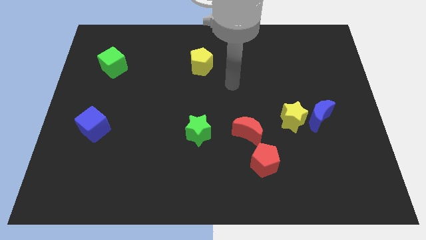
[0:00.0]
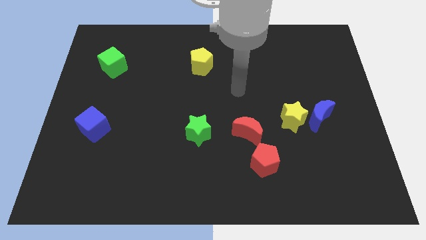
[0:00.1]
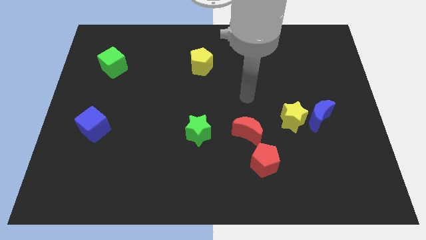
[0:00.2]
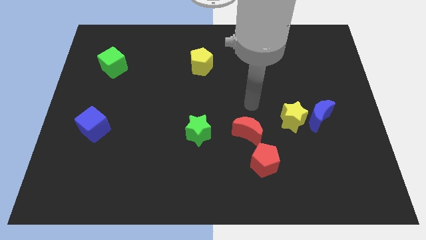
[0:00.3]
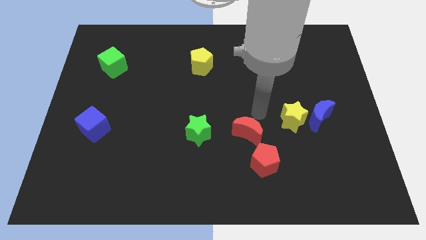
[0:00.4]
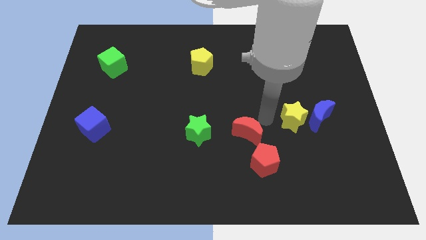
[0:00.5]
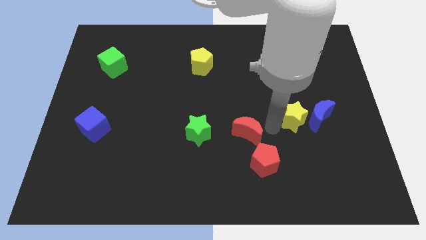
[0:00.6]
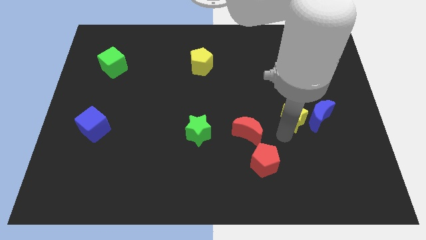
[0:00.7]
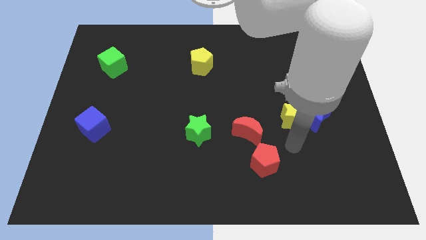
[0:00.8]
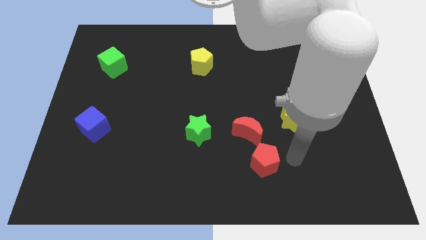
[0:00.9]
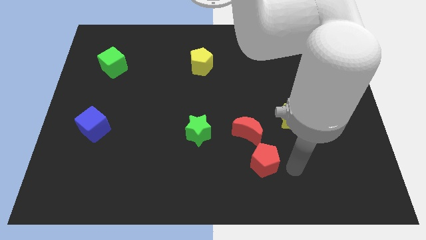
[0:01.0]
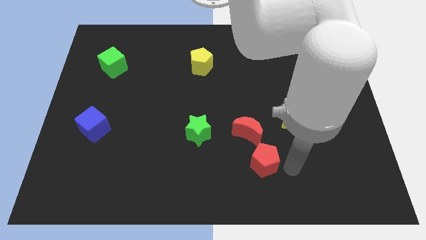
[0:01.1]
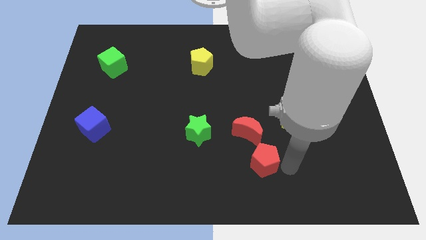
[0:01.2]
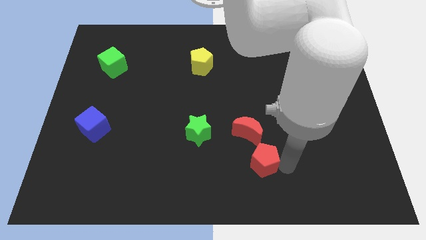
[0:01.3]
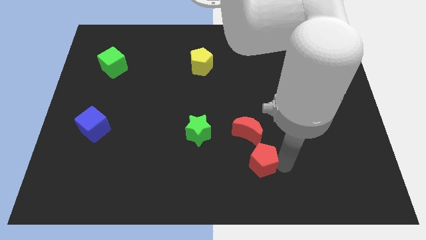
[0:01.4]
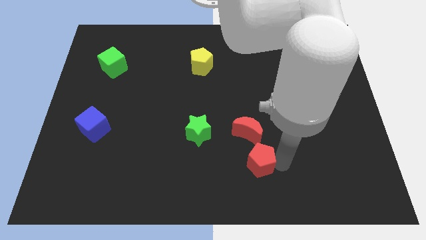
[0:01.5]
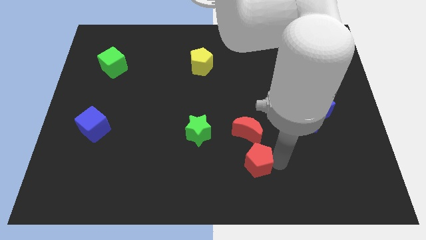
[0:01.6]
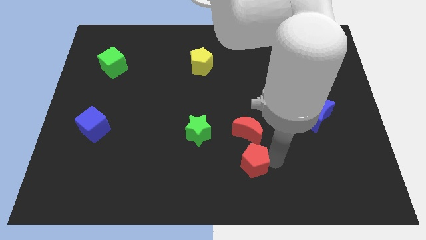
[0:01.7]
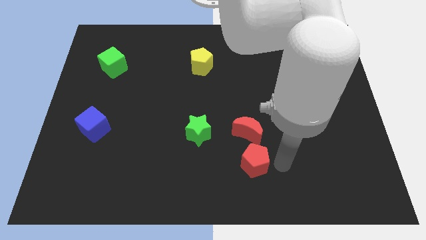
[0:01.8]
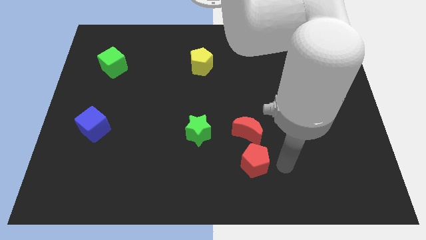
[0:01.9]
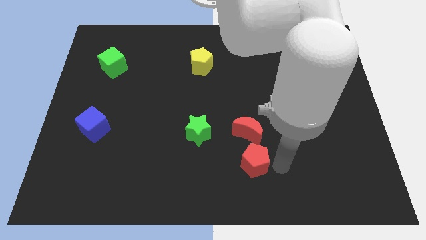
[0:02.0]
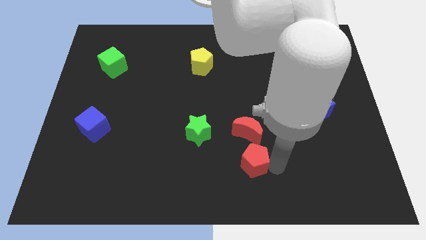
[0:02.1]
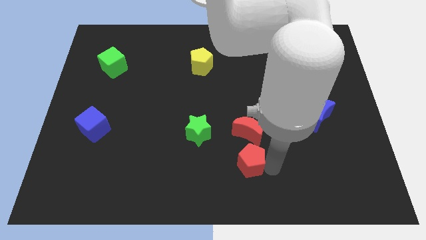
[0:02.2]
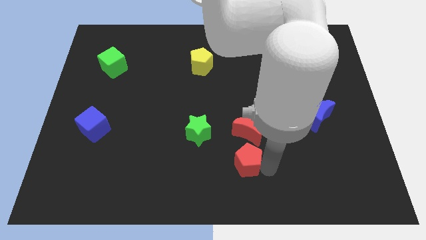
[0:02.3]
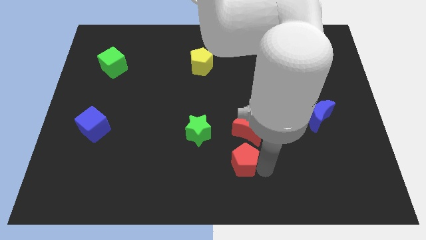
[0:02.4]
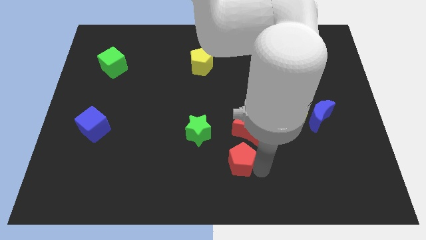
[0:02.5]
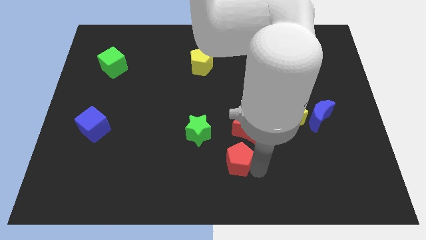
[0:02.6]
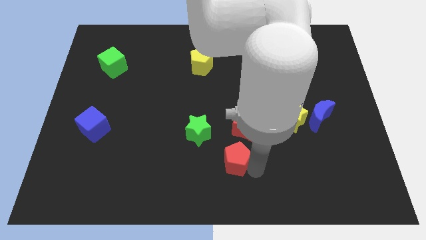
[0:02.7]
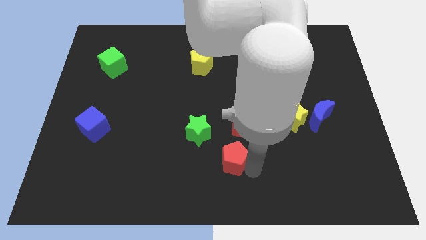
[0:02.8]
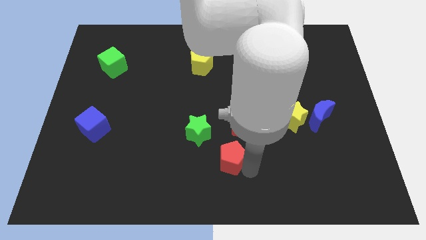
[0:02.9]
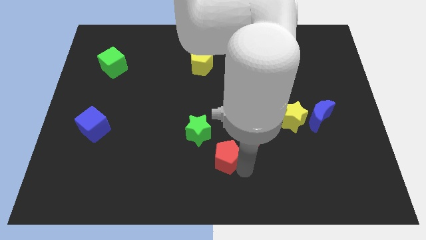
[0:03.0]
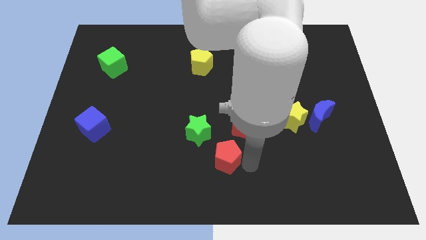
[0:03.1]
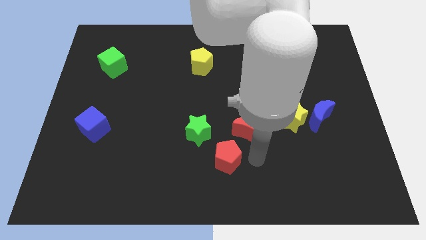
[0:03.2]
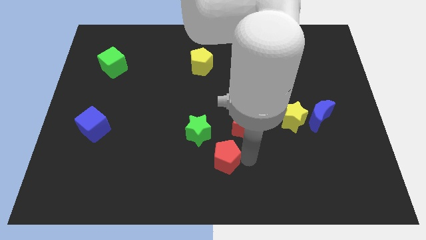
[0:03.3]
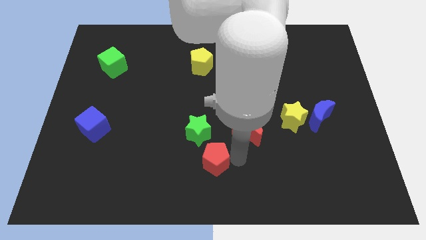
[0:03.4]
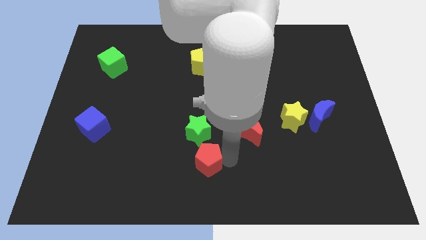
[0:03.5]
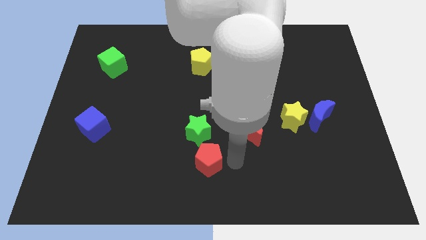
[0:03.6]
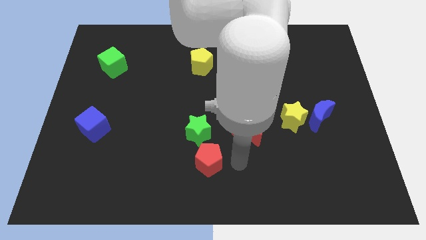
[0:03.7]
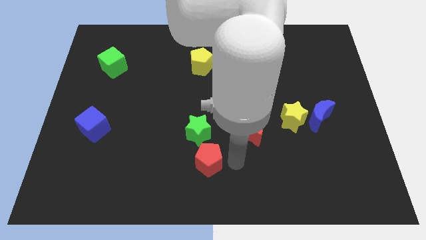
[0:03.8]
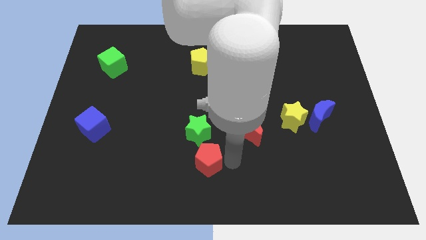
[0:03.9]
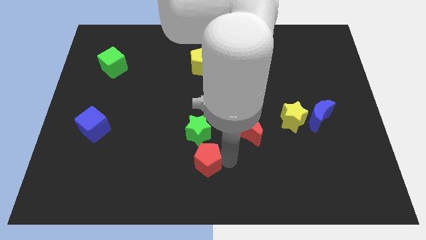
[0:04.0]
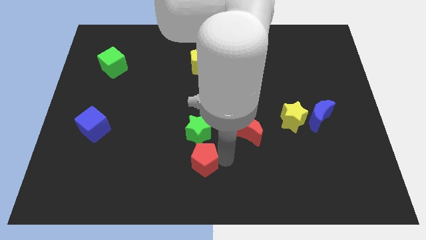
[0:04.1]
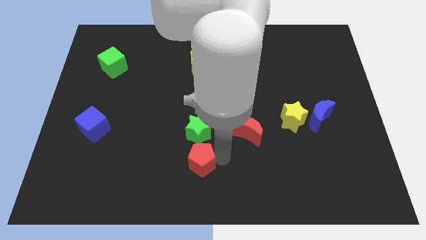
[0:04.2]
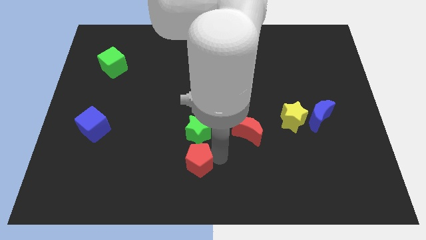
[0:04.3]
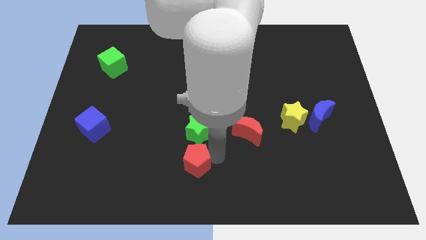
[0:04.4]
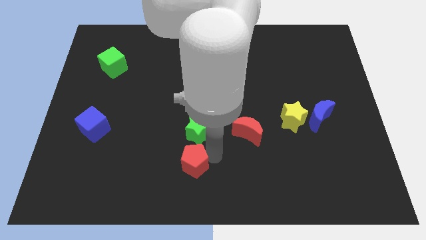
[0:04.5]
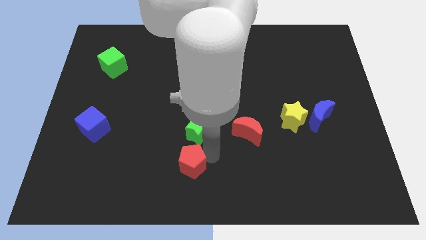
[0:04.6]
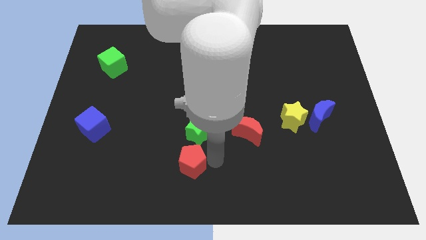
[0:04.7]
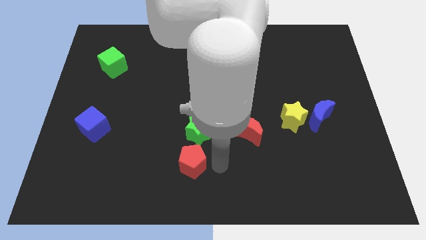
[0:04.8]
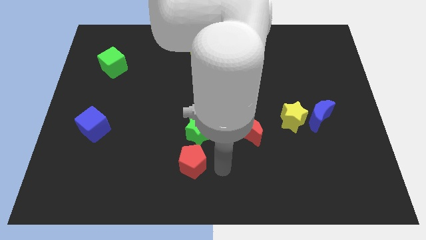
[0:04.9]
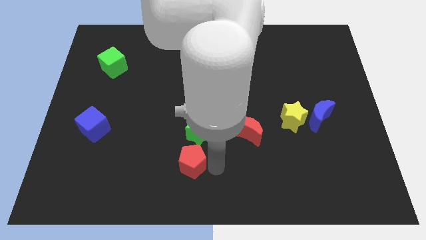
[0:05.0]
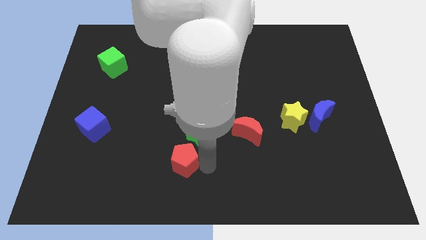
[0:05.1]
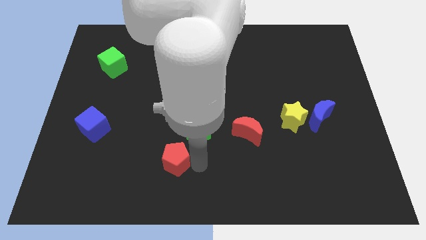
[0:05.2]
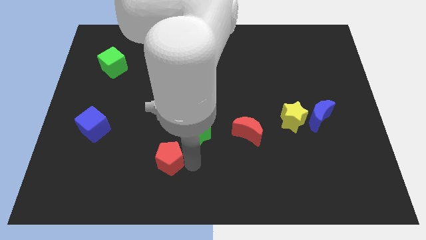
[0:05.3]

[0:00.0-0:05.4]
slide the red pentagon to the left

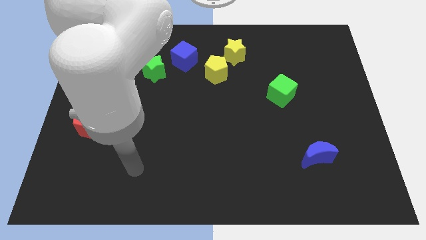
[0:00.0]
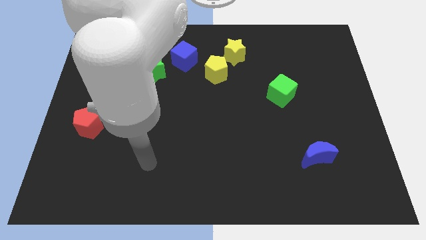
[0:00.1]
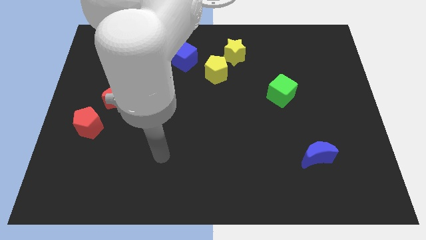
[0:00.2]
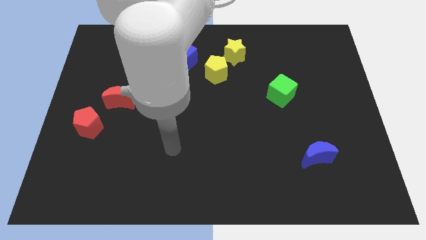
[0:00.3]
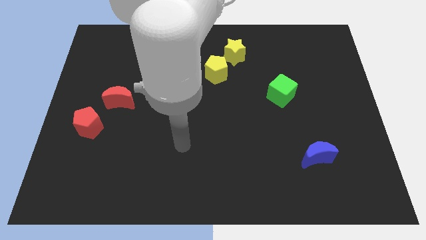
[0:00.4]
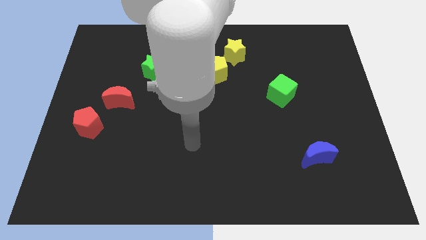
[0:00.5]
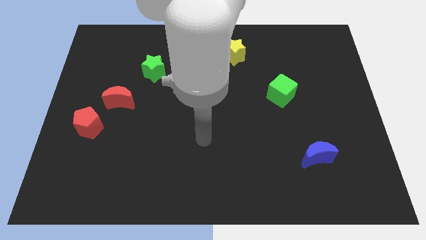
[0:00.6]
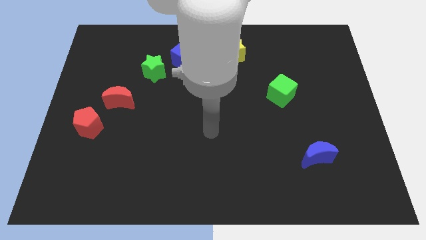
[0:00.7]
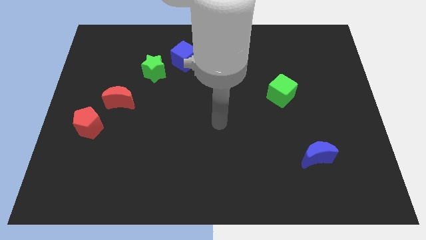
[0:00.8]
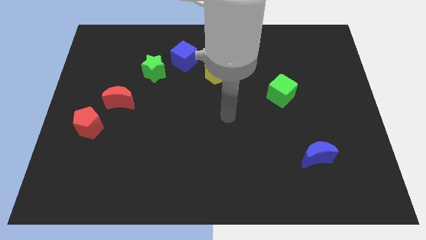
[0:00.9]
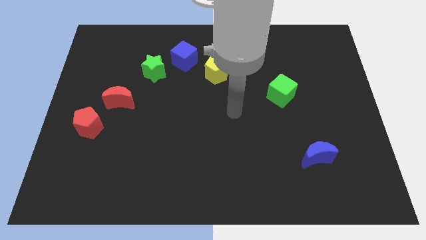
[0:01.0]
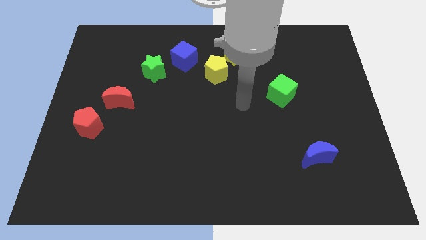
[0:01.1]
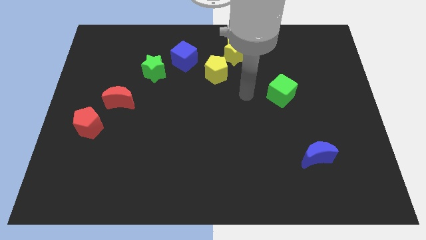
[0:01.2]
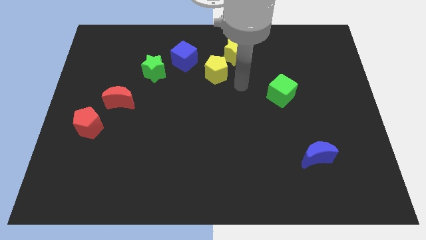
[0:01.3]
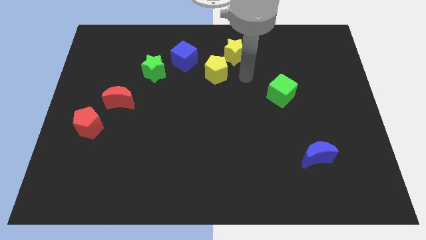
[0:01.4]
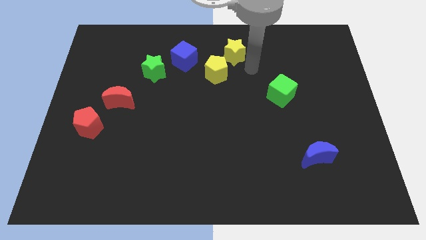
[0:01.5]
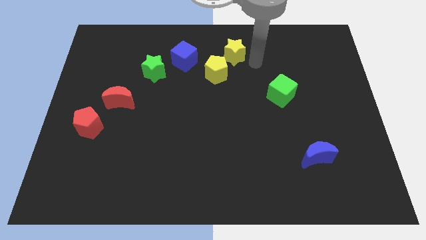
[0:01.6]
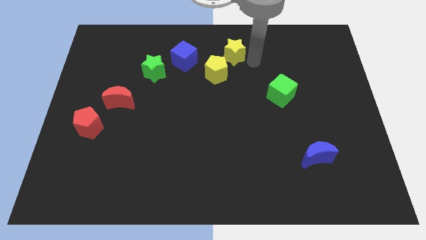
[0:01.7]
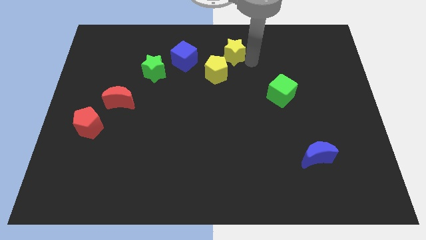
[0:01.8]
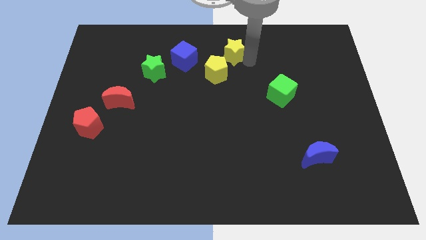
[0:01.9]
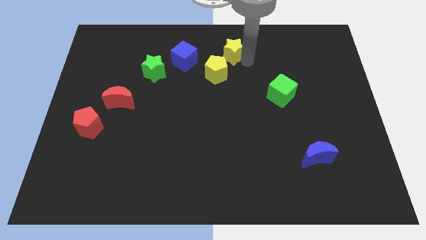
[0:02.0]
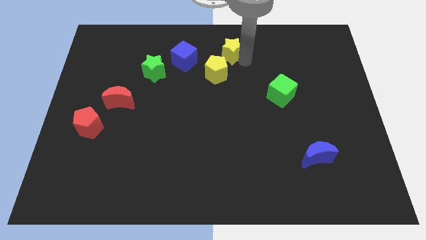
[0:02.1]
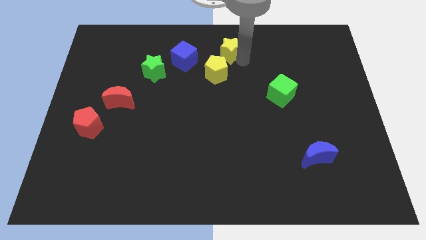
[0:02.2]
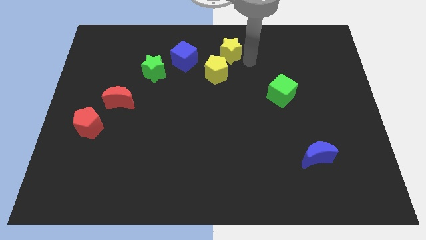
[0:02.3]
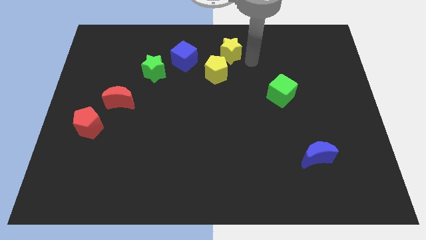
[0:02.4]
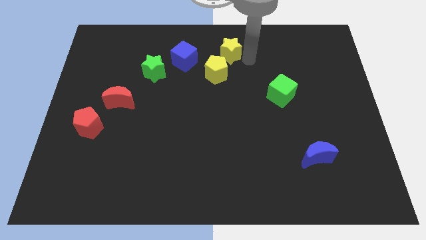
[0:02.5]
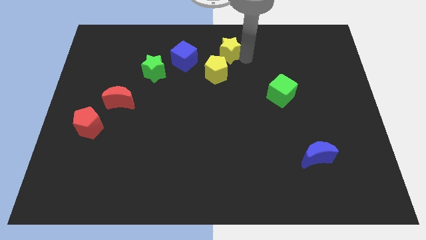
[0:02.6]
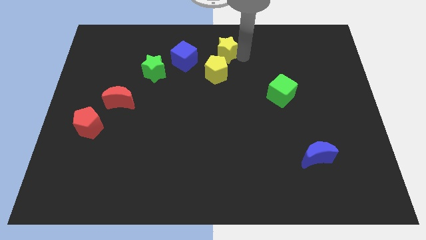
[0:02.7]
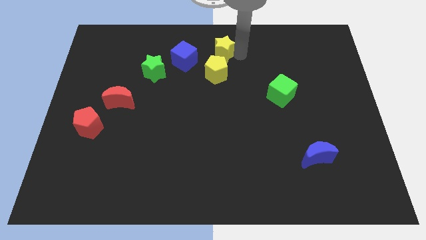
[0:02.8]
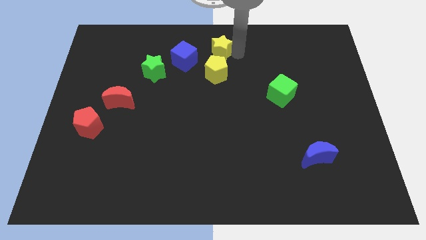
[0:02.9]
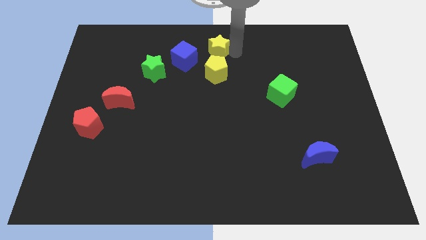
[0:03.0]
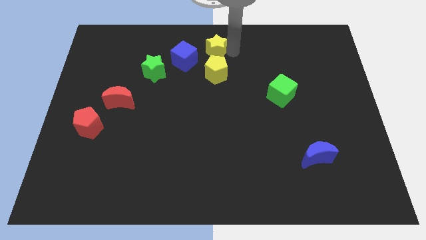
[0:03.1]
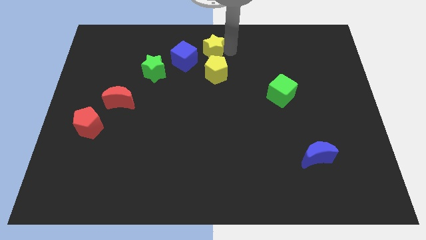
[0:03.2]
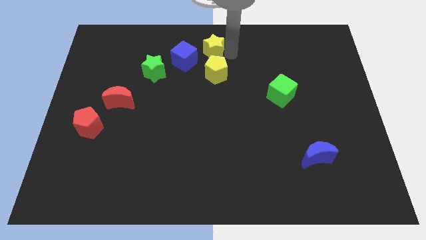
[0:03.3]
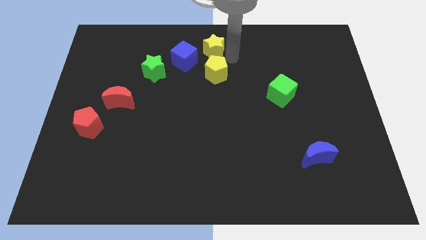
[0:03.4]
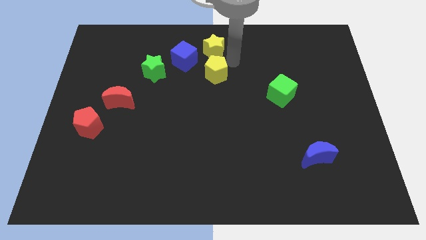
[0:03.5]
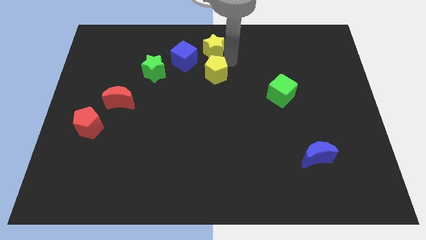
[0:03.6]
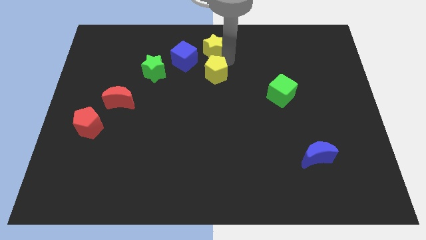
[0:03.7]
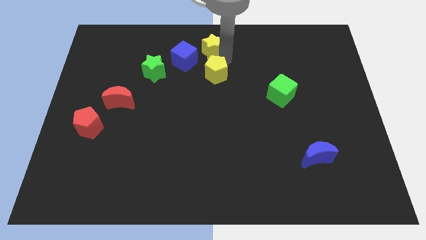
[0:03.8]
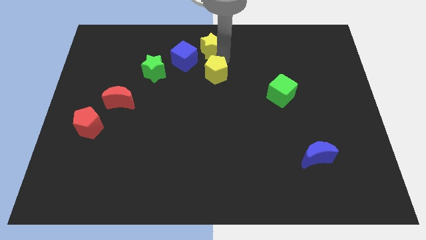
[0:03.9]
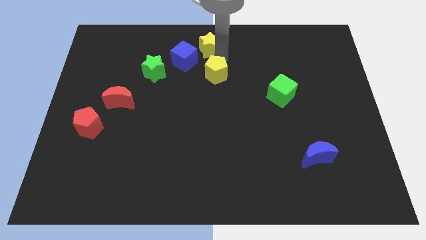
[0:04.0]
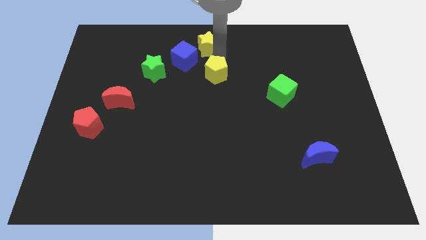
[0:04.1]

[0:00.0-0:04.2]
slightly move the yellow star to the left
